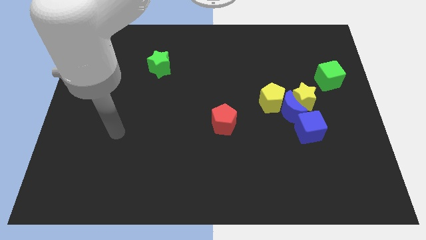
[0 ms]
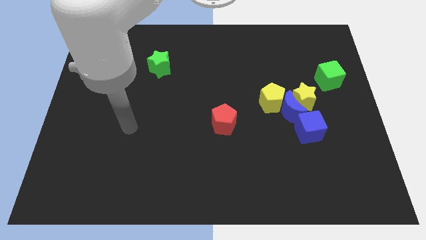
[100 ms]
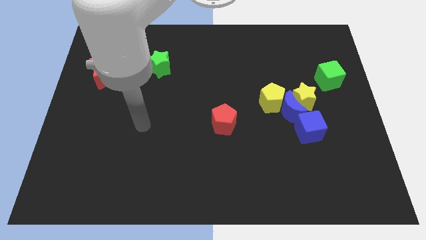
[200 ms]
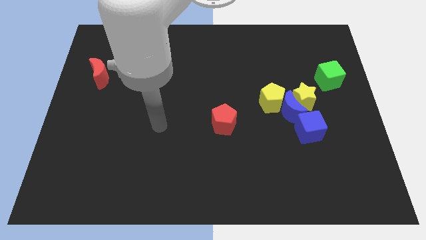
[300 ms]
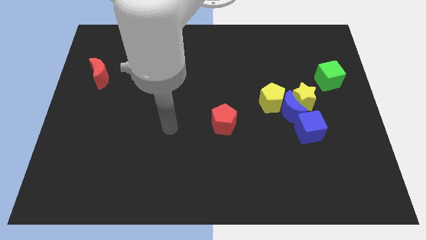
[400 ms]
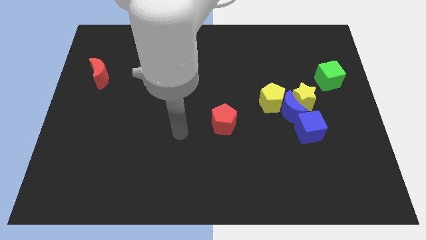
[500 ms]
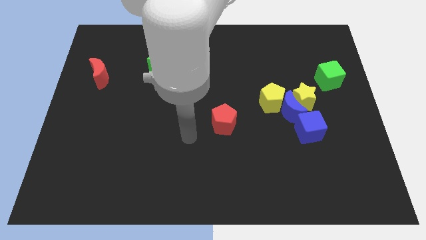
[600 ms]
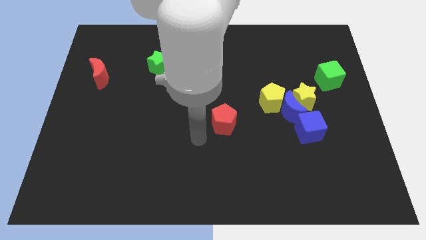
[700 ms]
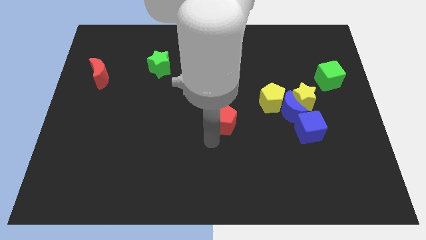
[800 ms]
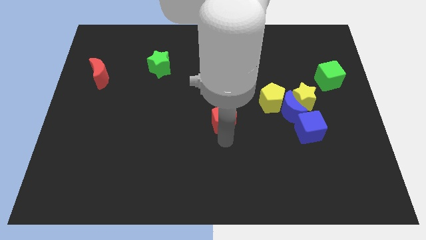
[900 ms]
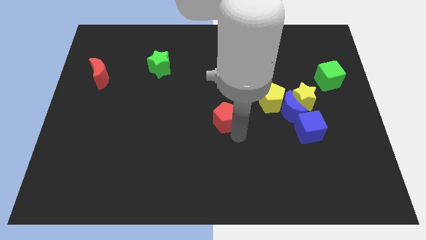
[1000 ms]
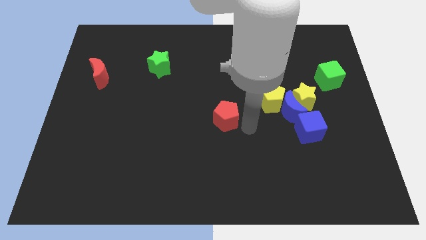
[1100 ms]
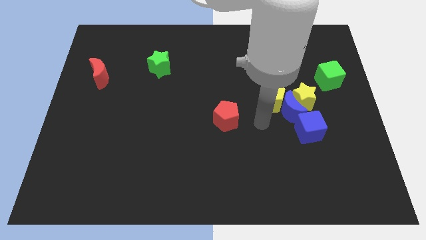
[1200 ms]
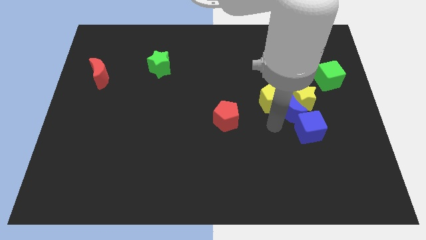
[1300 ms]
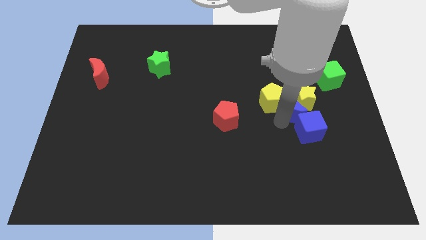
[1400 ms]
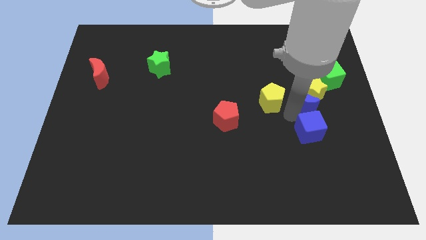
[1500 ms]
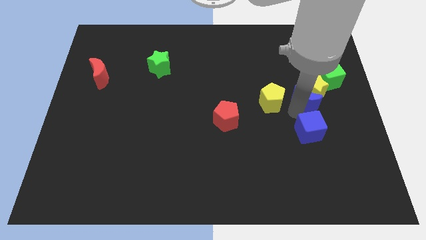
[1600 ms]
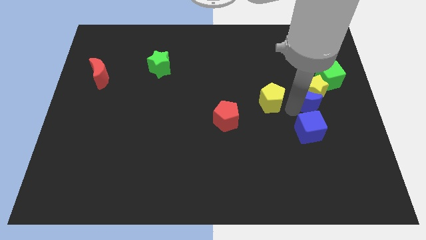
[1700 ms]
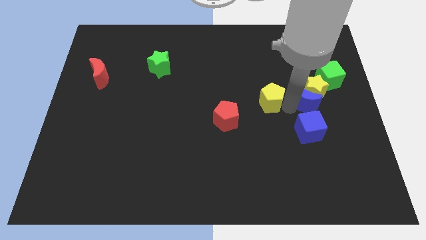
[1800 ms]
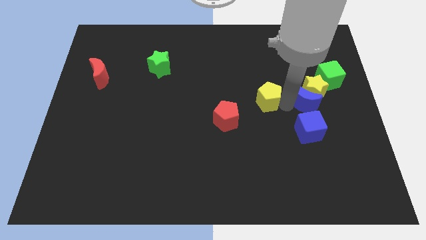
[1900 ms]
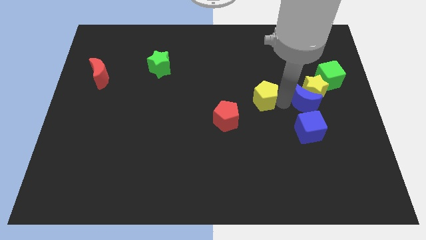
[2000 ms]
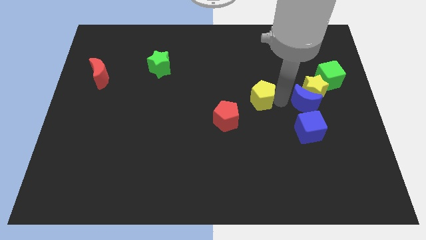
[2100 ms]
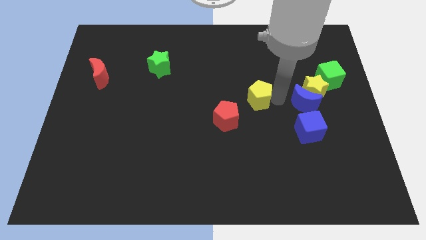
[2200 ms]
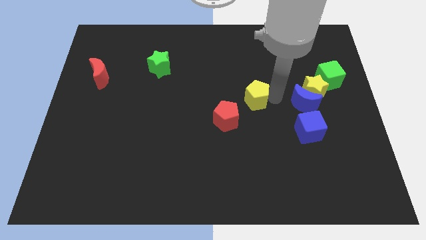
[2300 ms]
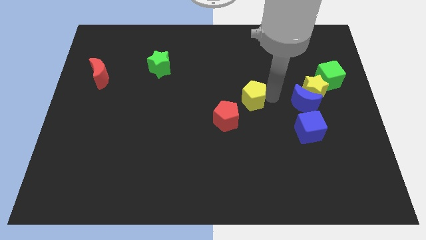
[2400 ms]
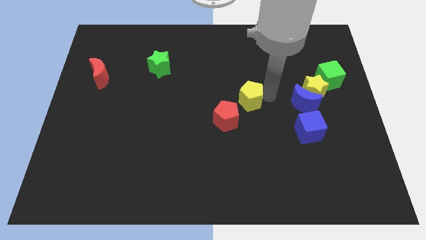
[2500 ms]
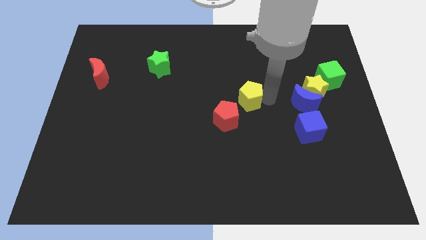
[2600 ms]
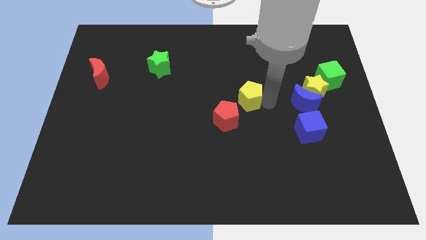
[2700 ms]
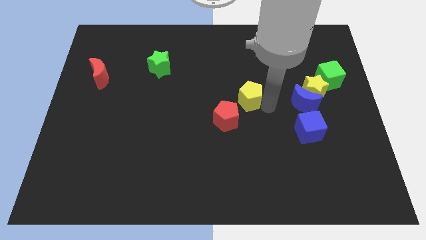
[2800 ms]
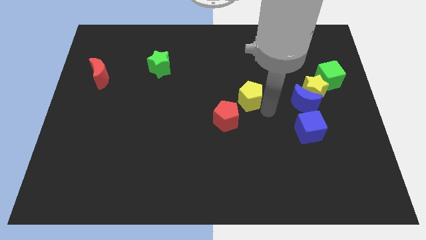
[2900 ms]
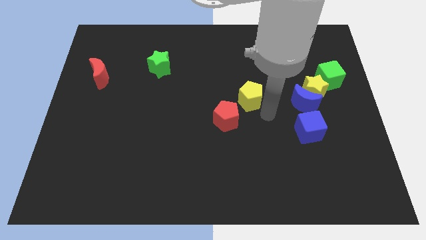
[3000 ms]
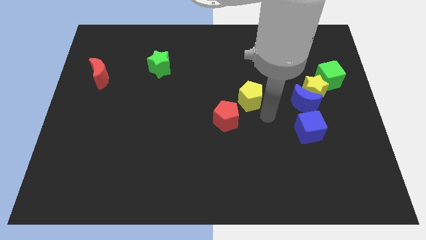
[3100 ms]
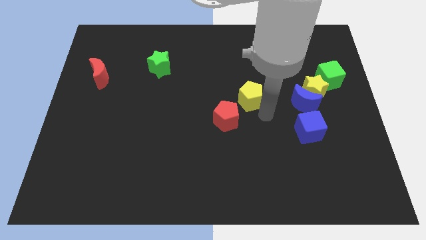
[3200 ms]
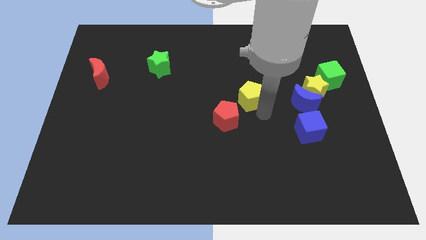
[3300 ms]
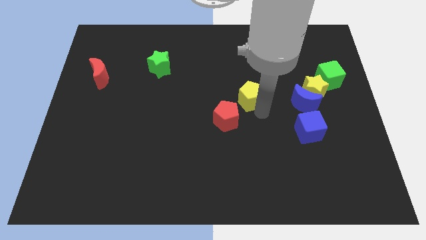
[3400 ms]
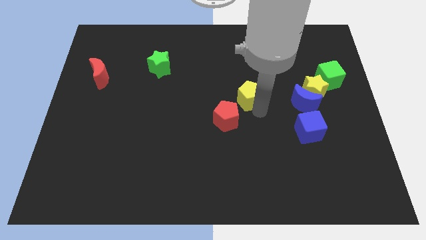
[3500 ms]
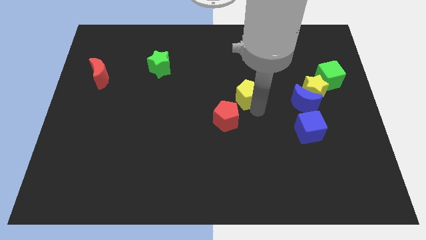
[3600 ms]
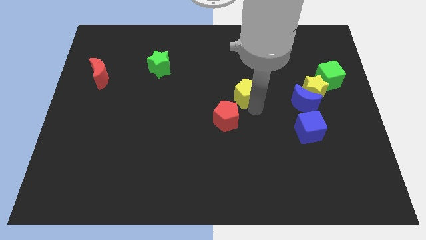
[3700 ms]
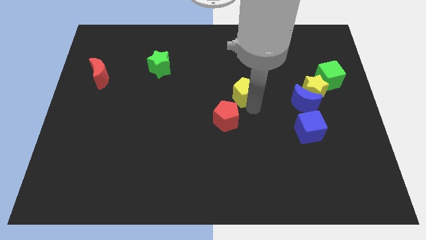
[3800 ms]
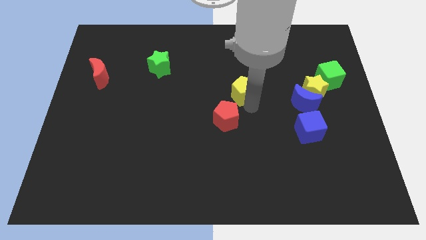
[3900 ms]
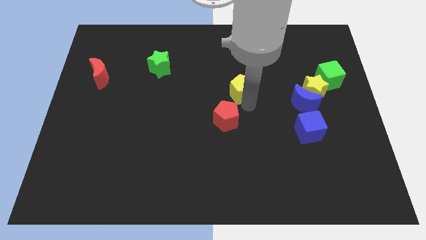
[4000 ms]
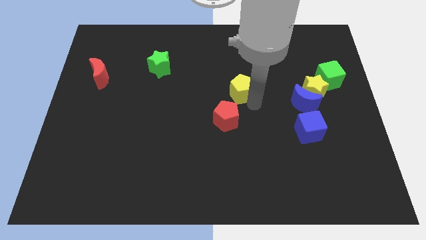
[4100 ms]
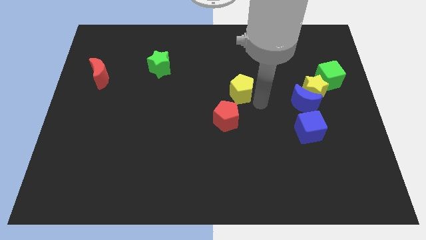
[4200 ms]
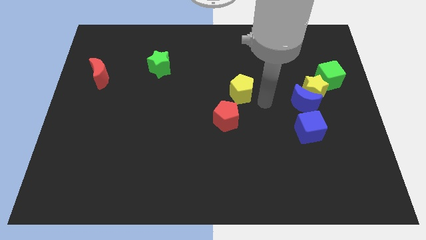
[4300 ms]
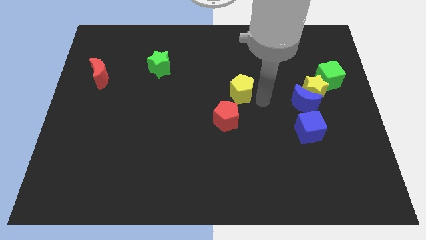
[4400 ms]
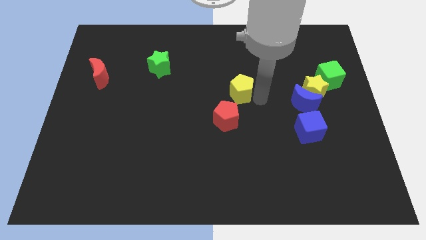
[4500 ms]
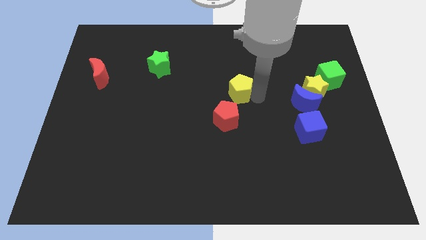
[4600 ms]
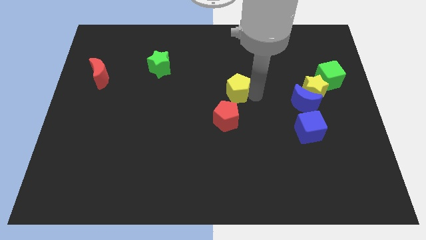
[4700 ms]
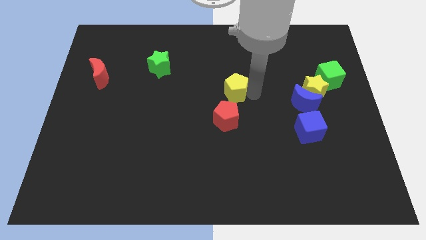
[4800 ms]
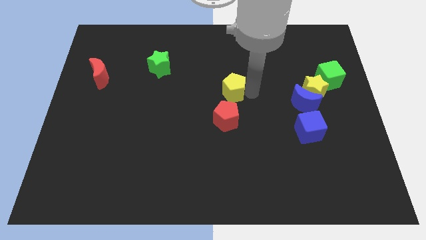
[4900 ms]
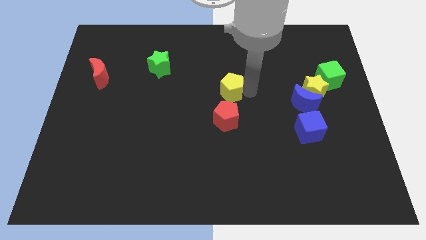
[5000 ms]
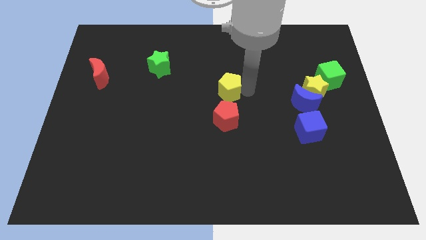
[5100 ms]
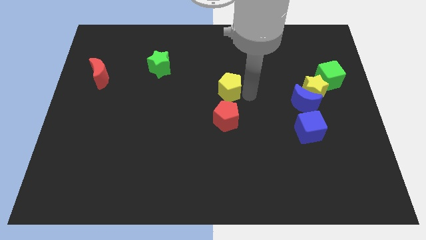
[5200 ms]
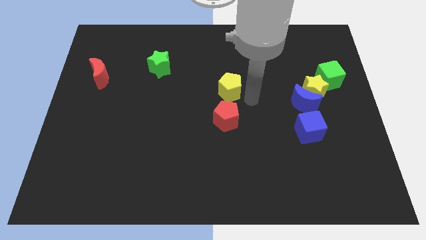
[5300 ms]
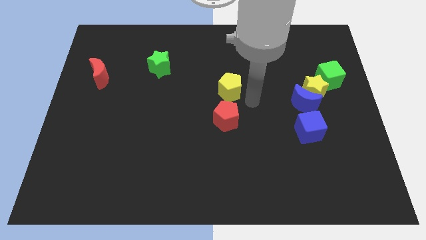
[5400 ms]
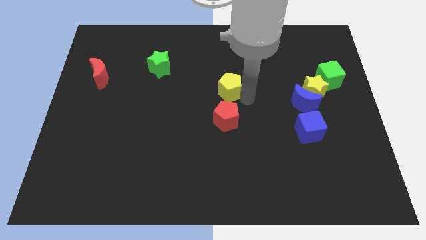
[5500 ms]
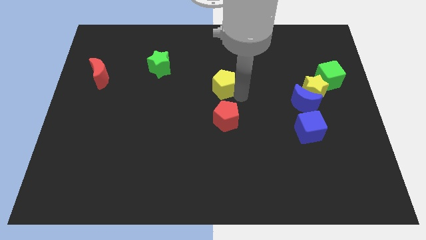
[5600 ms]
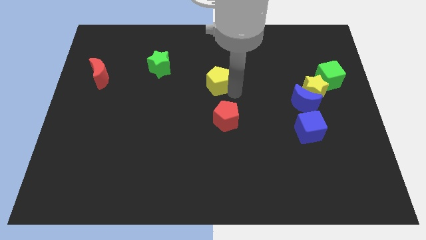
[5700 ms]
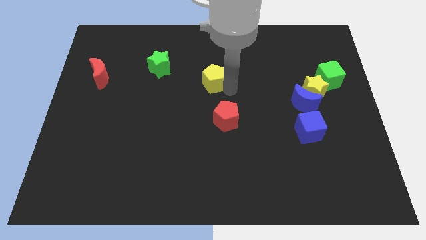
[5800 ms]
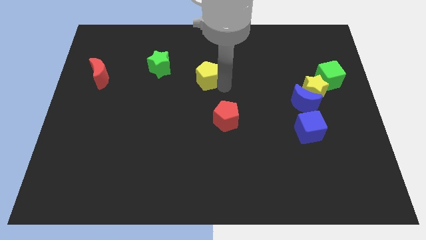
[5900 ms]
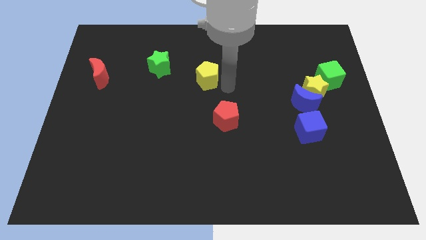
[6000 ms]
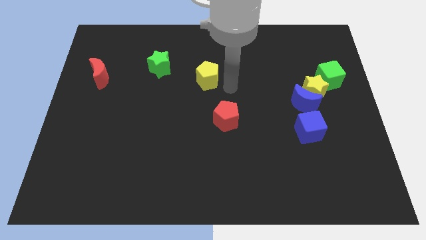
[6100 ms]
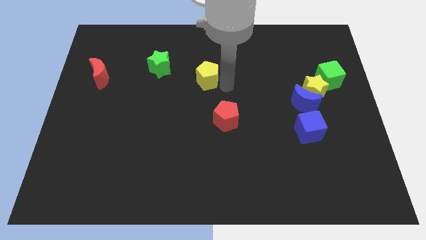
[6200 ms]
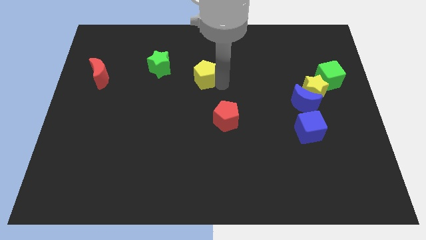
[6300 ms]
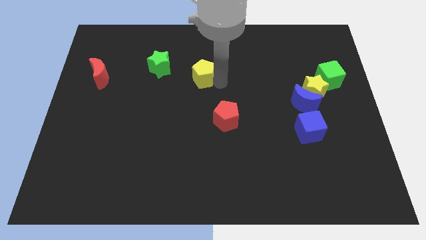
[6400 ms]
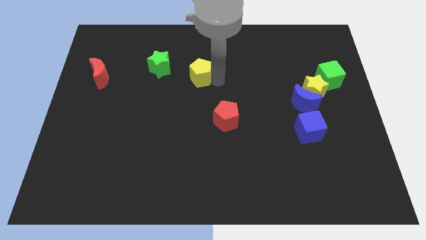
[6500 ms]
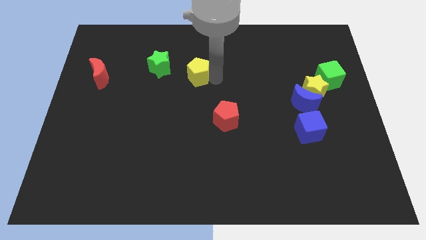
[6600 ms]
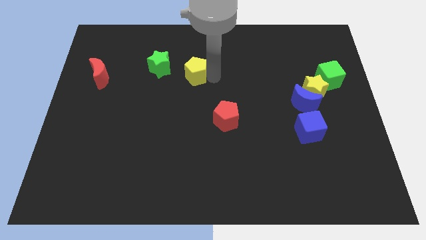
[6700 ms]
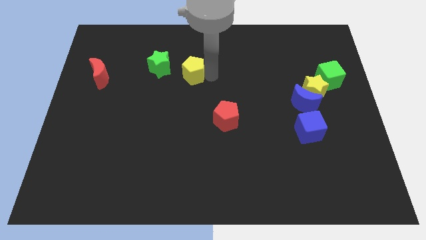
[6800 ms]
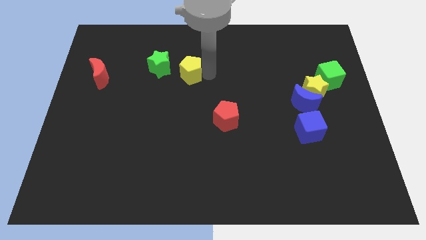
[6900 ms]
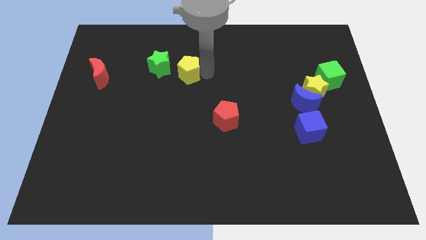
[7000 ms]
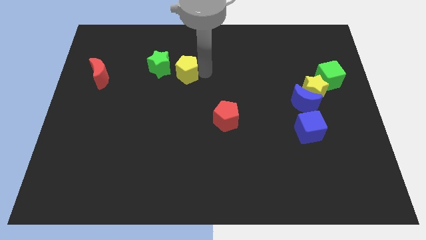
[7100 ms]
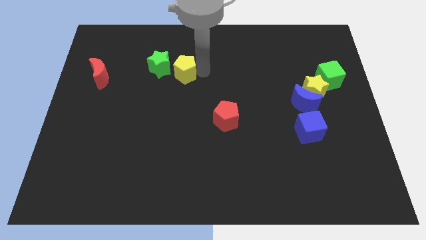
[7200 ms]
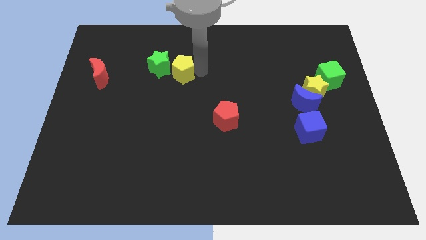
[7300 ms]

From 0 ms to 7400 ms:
put the yellow pentagon next to the green star
